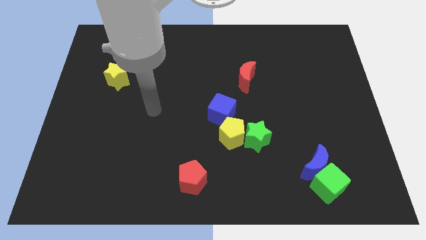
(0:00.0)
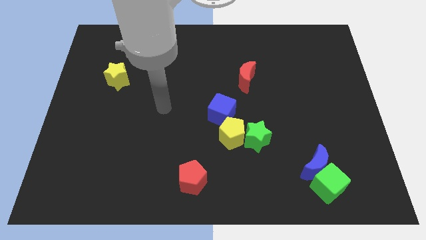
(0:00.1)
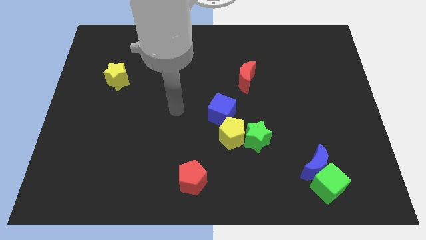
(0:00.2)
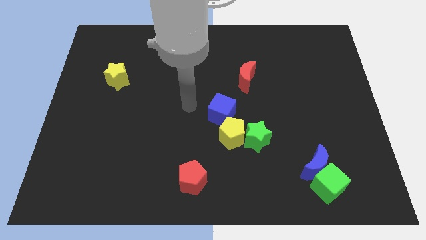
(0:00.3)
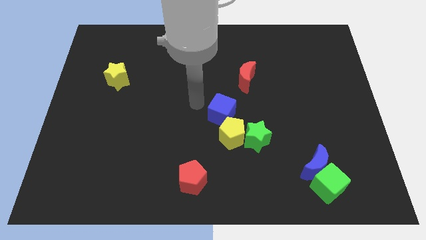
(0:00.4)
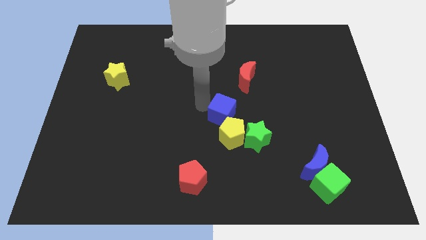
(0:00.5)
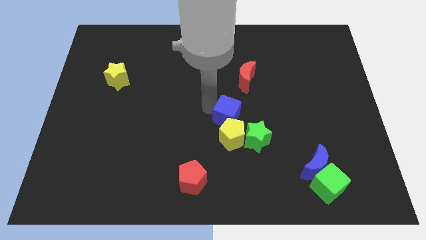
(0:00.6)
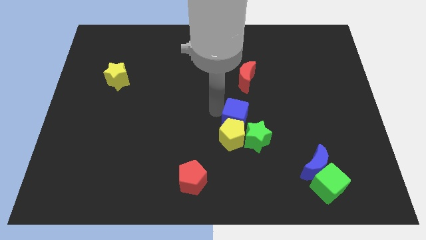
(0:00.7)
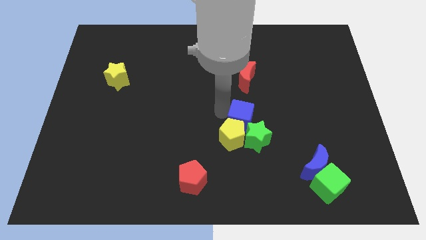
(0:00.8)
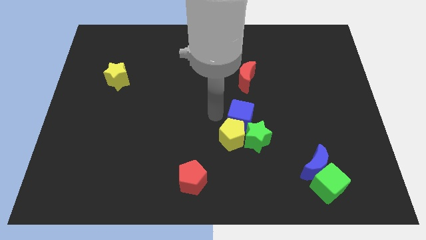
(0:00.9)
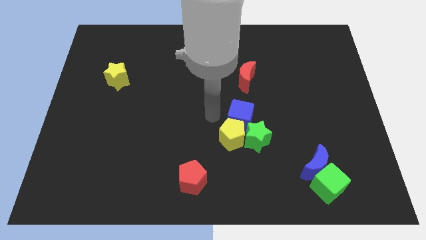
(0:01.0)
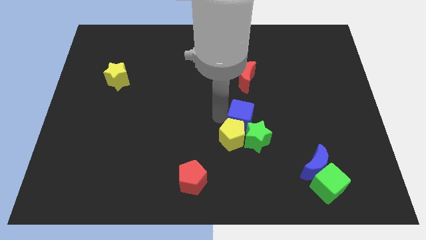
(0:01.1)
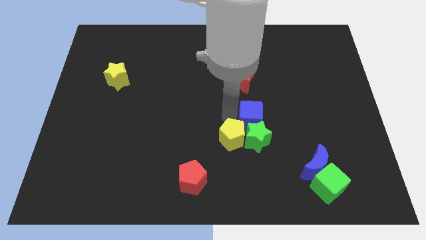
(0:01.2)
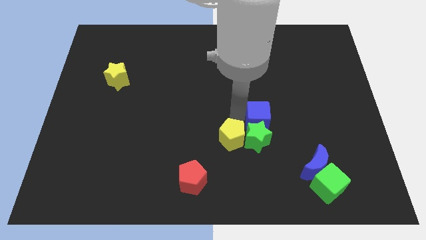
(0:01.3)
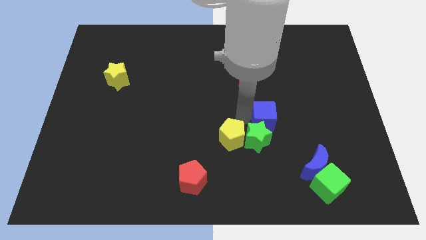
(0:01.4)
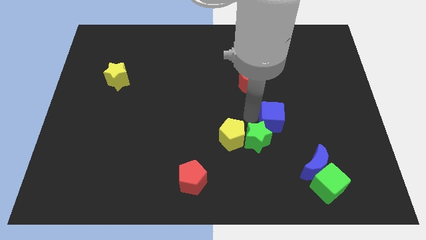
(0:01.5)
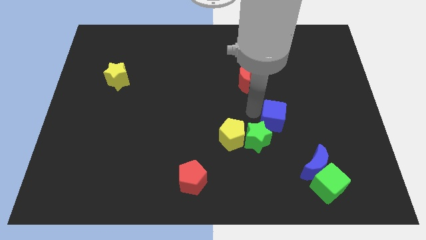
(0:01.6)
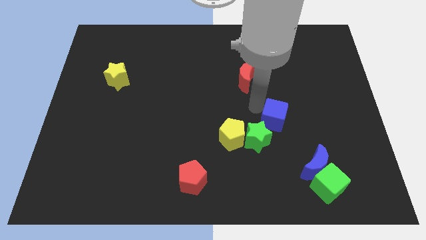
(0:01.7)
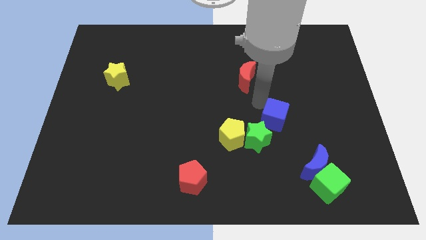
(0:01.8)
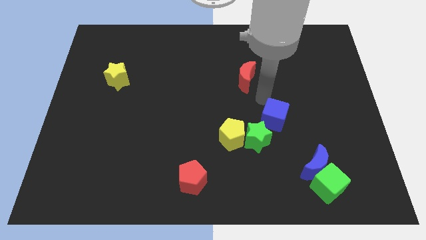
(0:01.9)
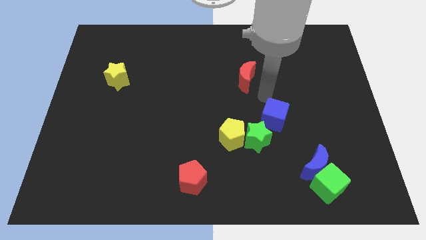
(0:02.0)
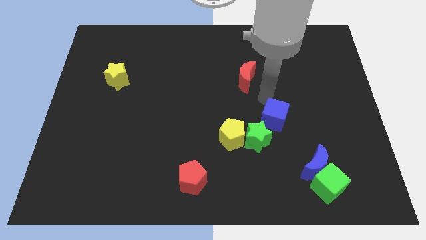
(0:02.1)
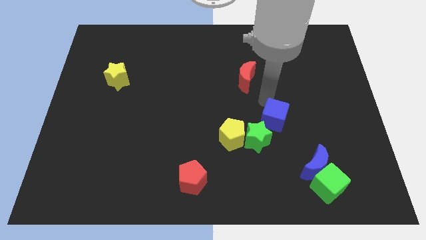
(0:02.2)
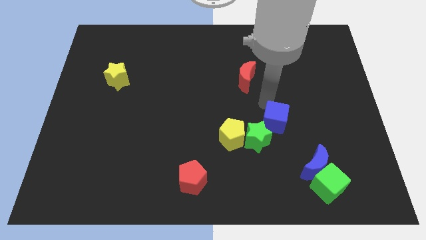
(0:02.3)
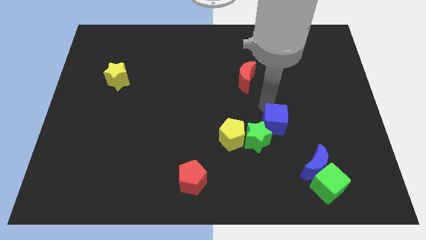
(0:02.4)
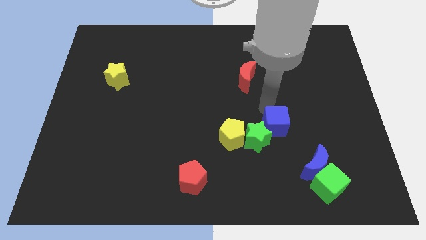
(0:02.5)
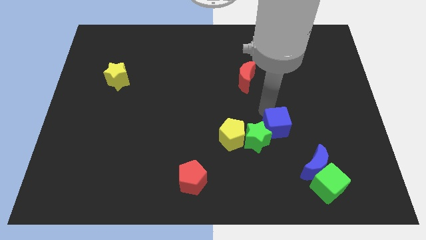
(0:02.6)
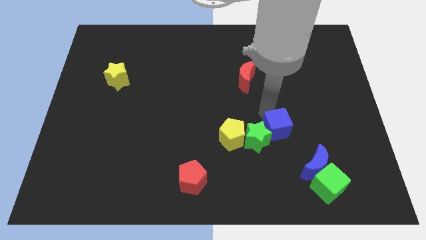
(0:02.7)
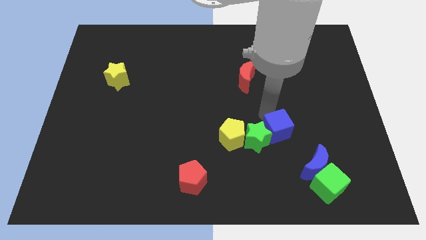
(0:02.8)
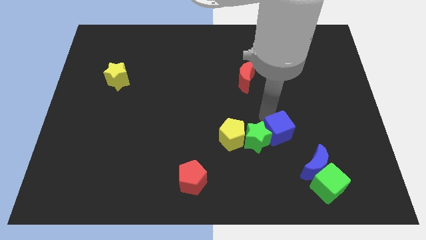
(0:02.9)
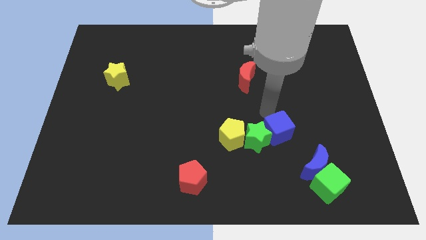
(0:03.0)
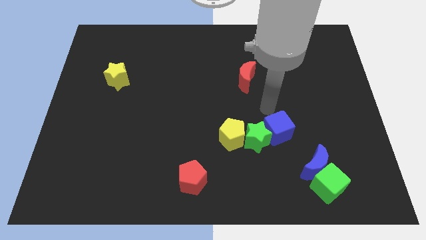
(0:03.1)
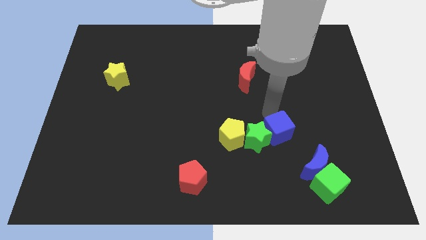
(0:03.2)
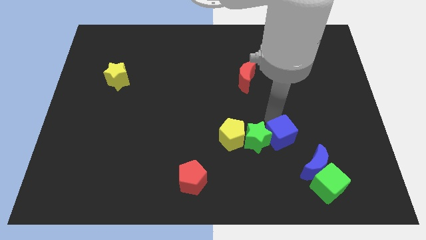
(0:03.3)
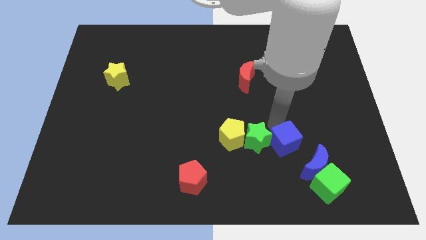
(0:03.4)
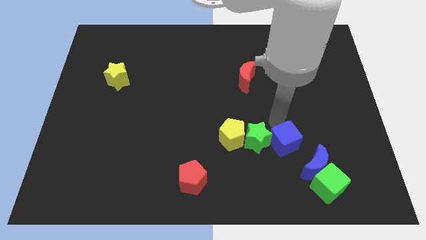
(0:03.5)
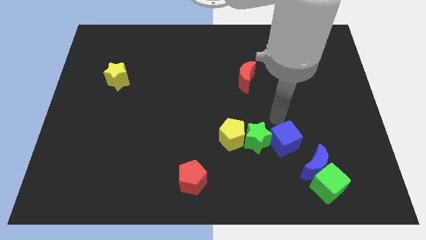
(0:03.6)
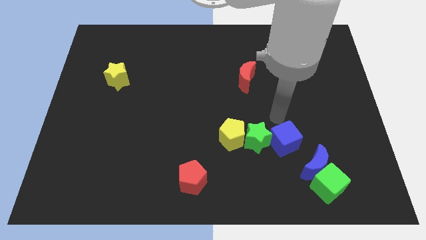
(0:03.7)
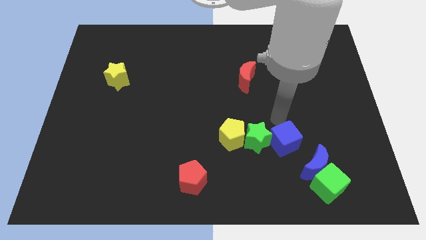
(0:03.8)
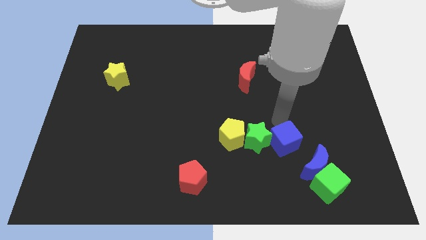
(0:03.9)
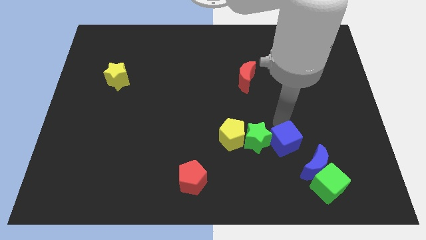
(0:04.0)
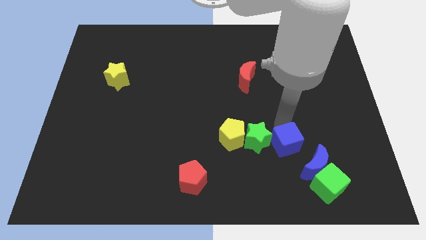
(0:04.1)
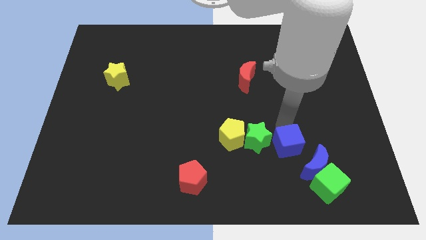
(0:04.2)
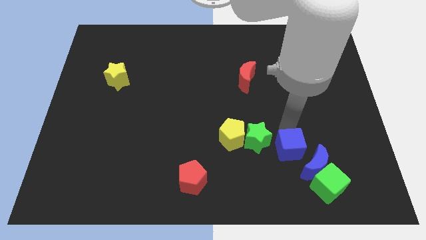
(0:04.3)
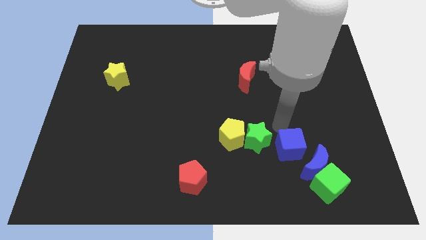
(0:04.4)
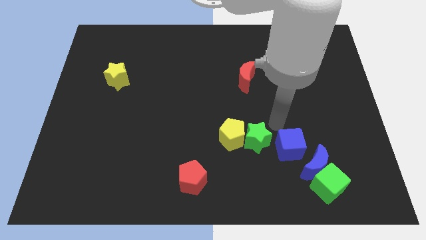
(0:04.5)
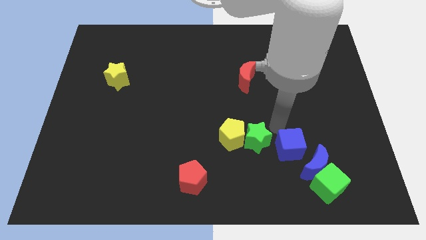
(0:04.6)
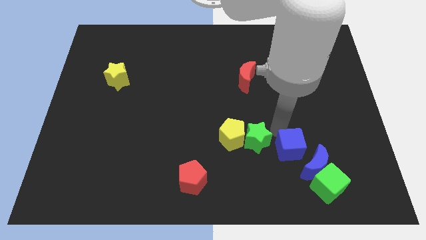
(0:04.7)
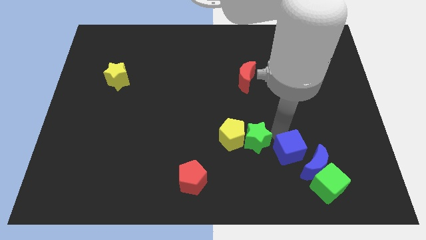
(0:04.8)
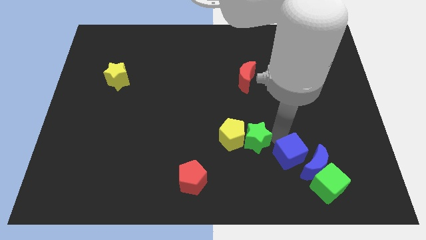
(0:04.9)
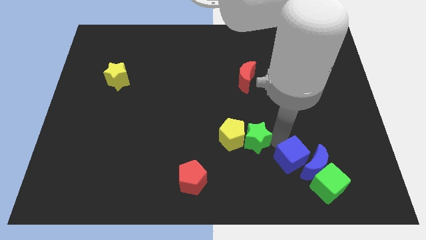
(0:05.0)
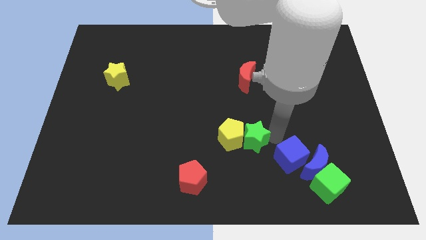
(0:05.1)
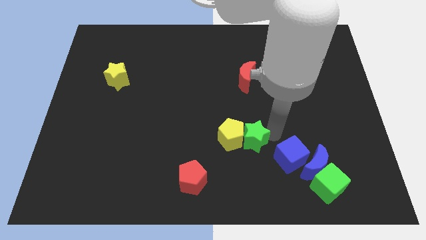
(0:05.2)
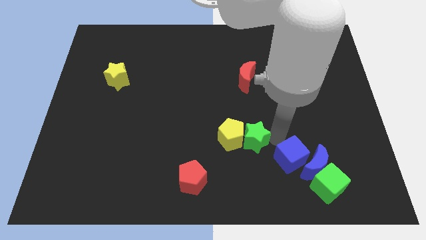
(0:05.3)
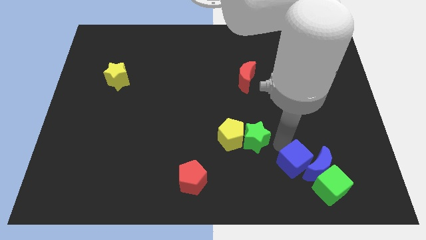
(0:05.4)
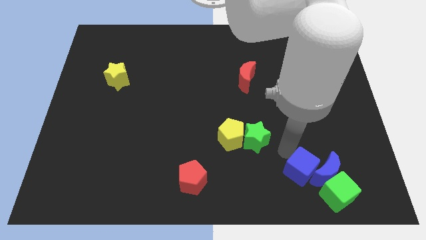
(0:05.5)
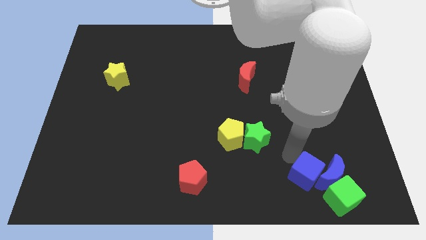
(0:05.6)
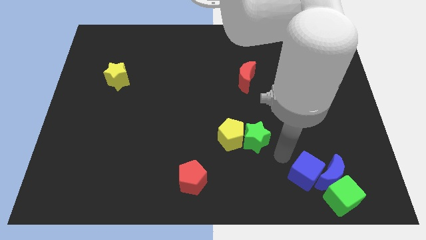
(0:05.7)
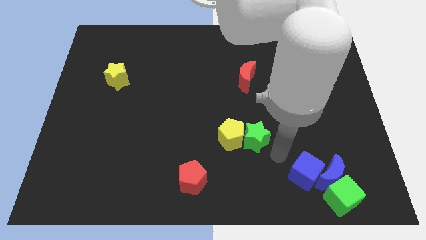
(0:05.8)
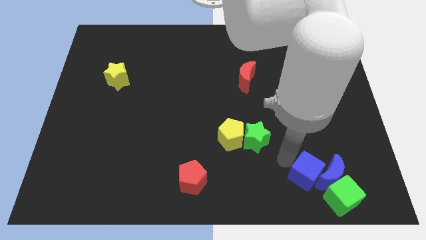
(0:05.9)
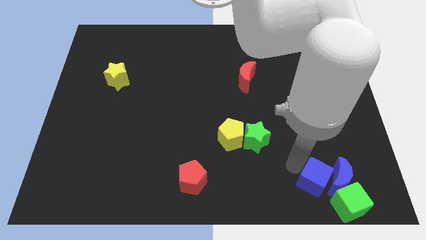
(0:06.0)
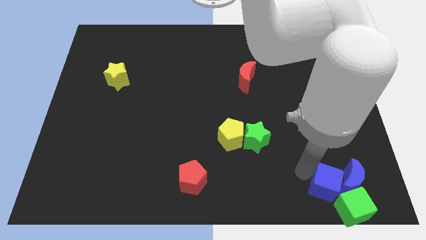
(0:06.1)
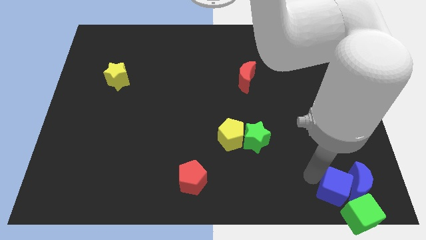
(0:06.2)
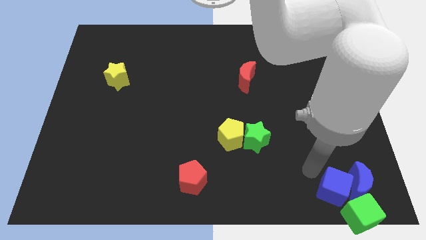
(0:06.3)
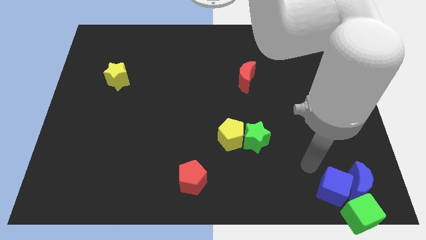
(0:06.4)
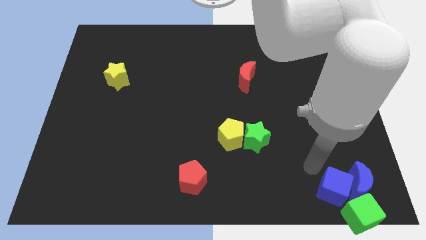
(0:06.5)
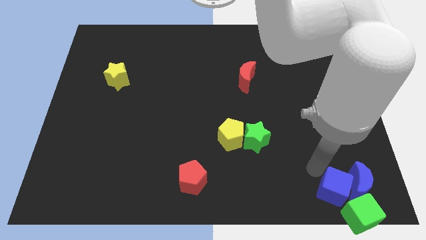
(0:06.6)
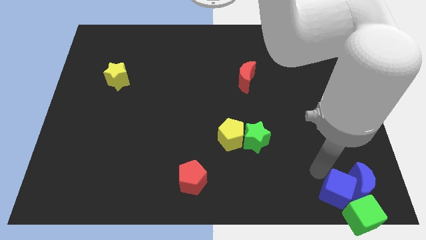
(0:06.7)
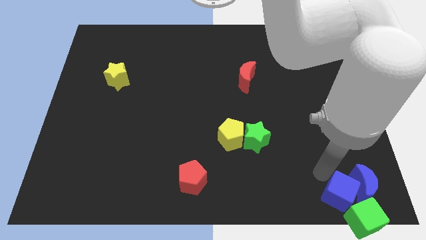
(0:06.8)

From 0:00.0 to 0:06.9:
slide the blue cube next to the green cube

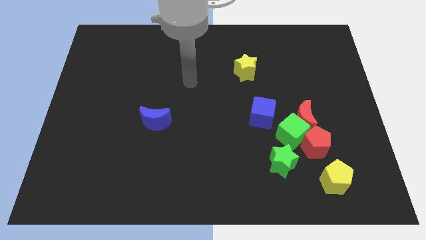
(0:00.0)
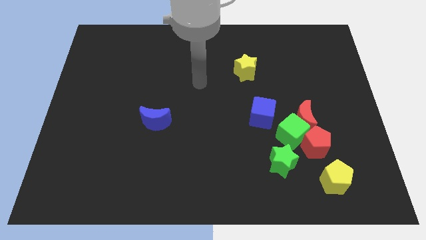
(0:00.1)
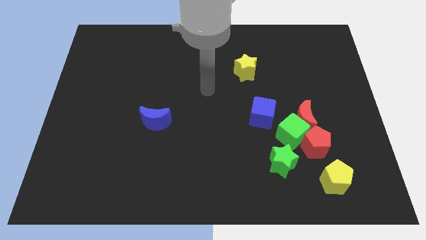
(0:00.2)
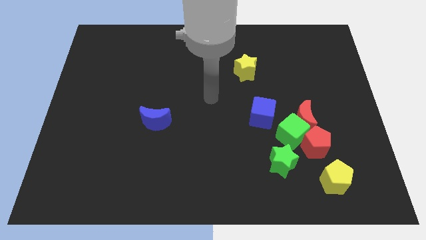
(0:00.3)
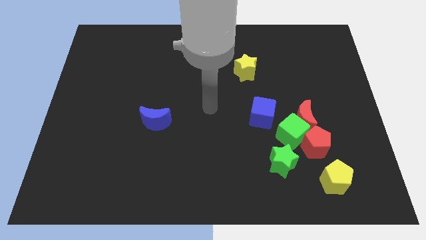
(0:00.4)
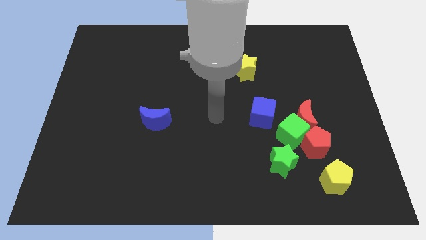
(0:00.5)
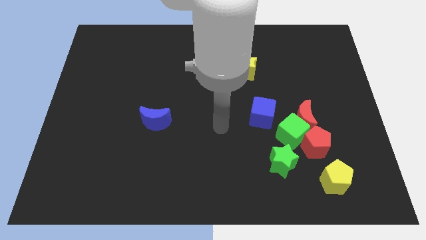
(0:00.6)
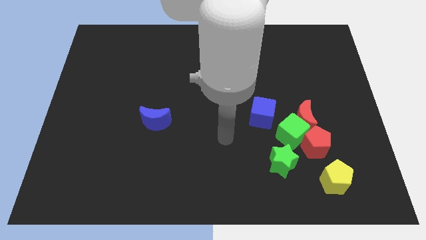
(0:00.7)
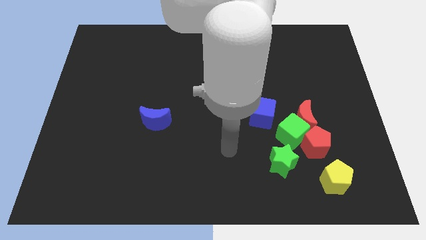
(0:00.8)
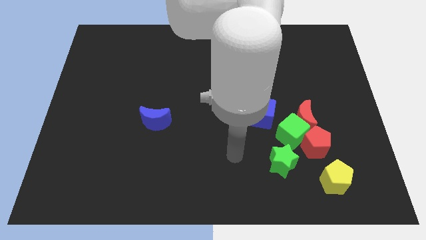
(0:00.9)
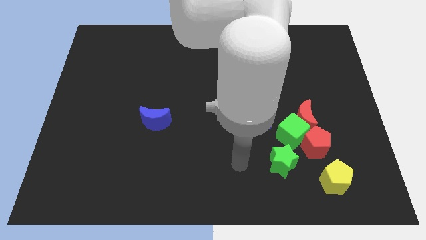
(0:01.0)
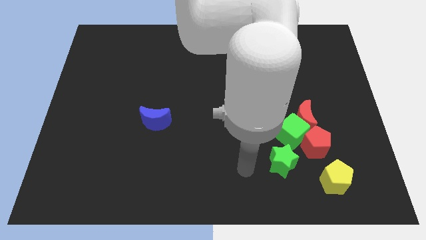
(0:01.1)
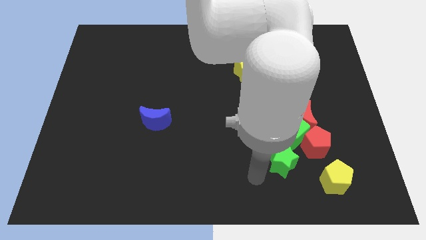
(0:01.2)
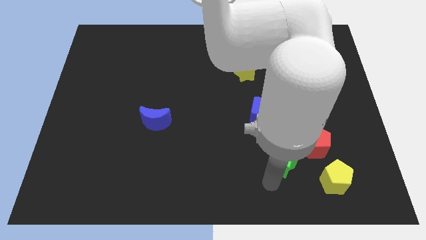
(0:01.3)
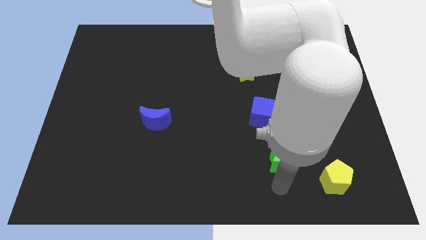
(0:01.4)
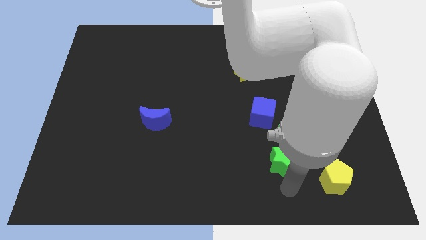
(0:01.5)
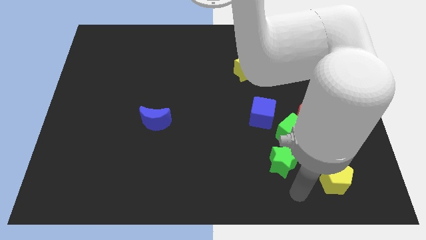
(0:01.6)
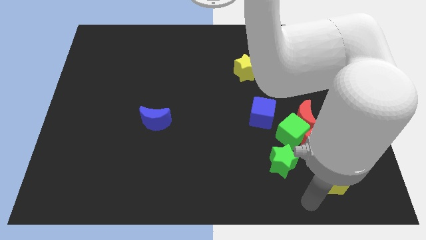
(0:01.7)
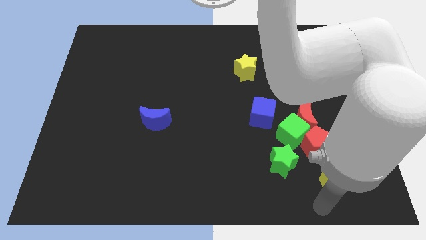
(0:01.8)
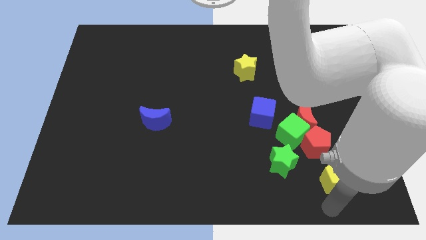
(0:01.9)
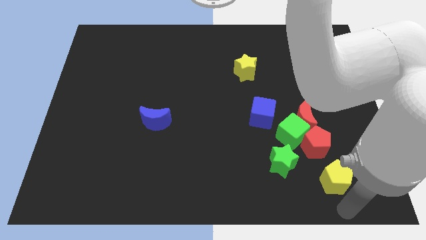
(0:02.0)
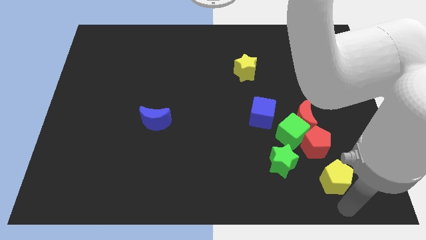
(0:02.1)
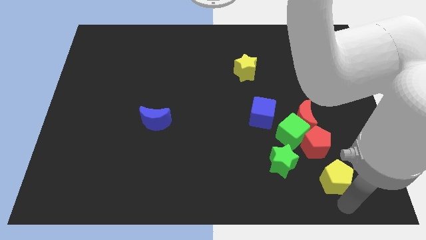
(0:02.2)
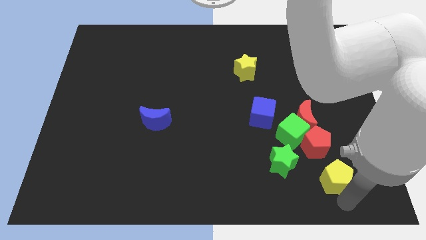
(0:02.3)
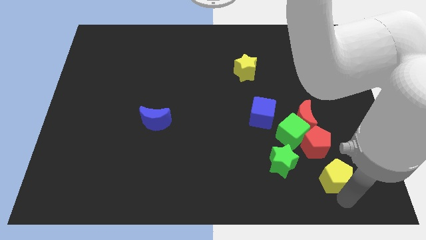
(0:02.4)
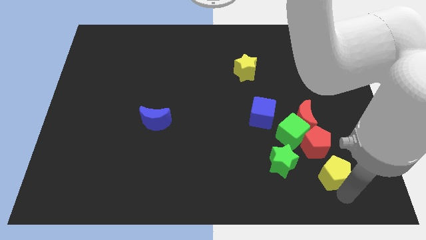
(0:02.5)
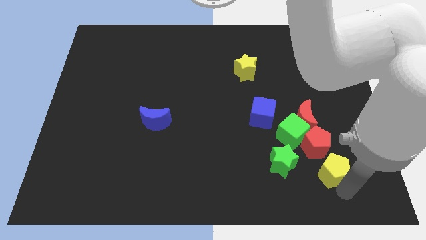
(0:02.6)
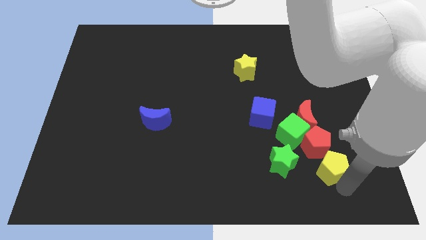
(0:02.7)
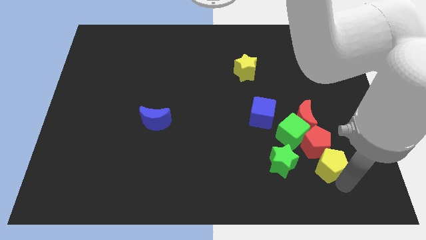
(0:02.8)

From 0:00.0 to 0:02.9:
slide the yellow pentagon towards the red pentagon
